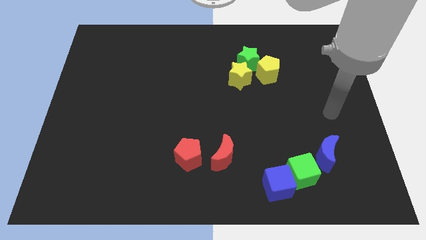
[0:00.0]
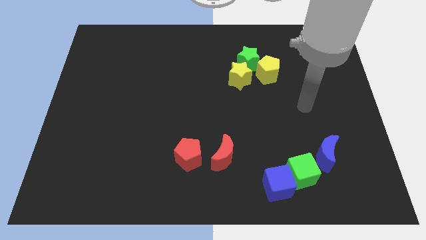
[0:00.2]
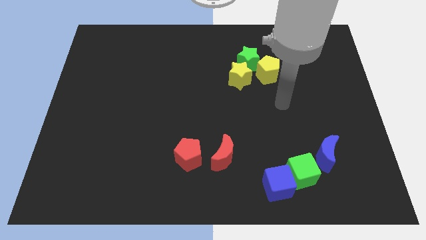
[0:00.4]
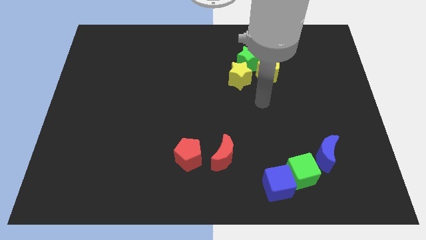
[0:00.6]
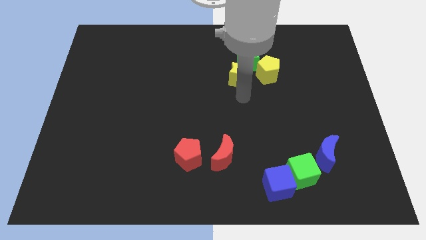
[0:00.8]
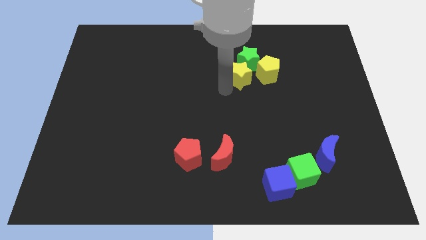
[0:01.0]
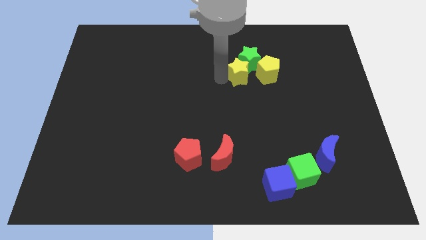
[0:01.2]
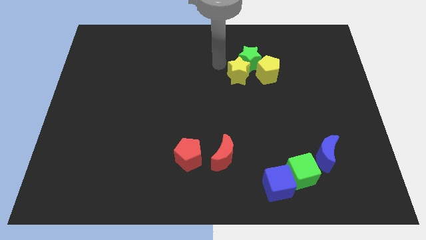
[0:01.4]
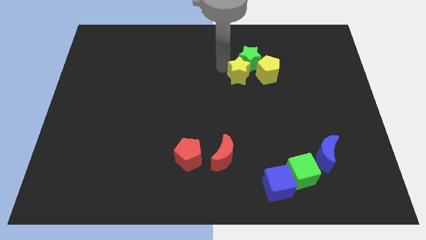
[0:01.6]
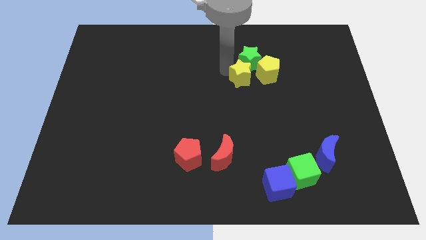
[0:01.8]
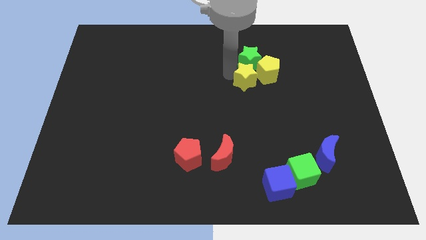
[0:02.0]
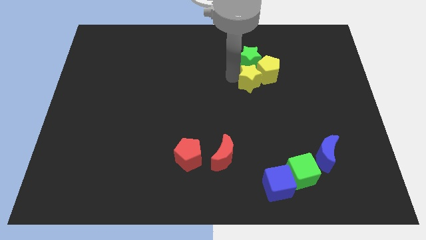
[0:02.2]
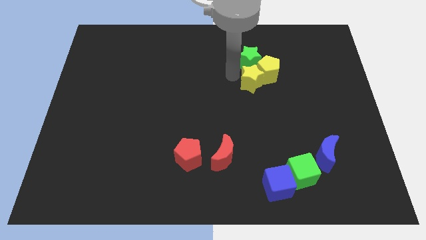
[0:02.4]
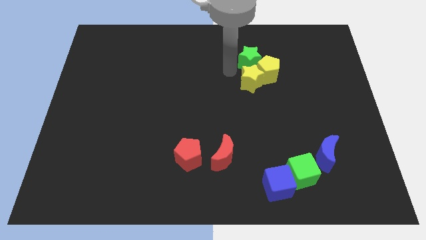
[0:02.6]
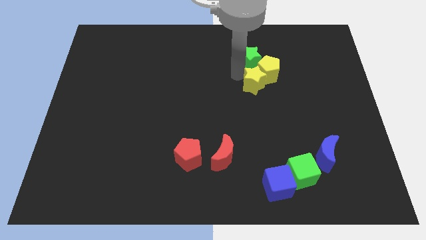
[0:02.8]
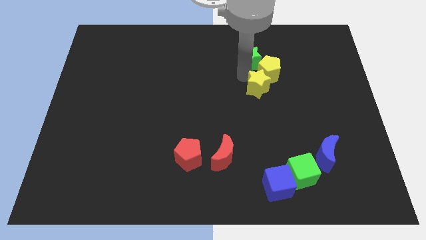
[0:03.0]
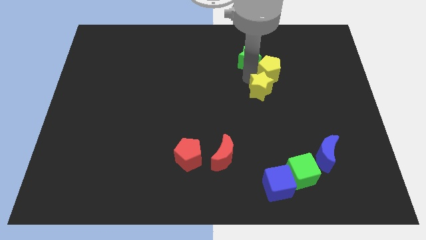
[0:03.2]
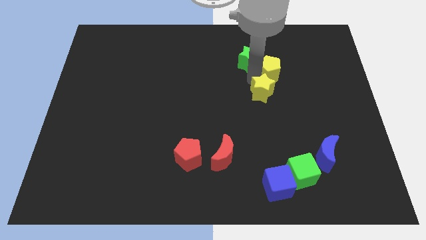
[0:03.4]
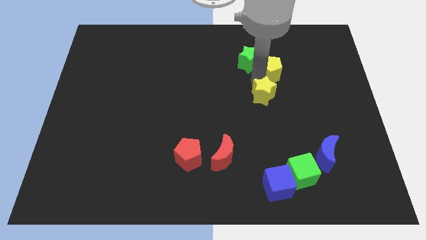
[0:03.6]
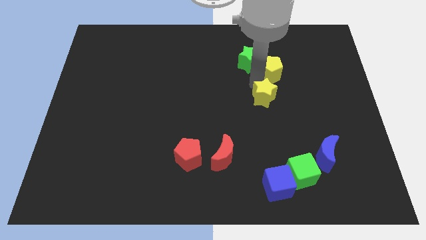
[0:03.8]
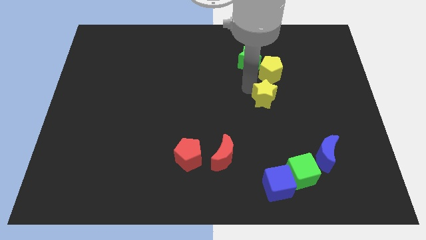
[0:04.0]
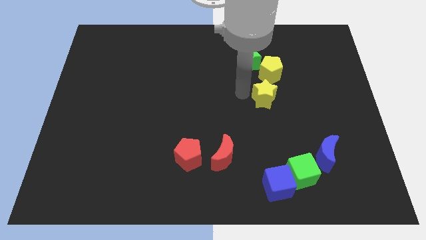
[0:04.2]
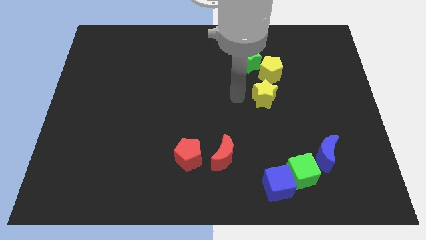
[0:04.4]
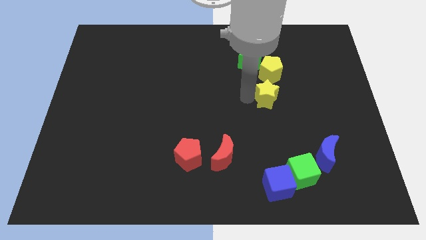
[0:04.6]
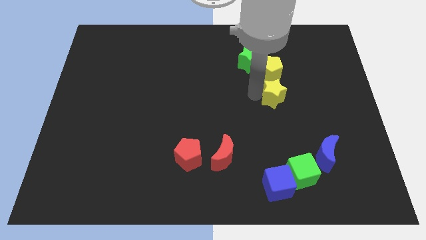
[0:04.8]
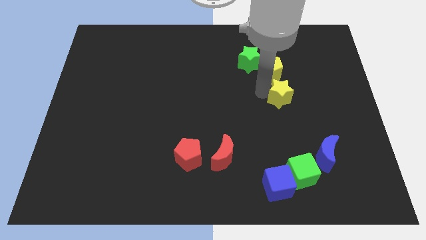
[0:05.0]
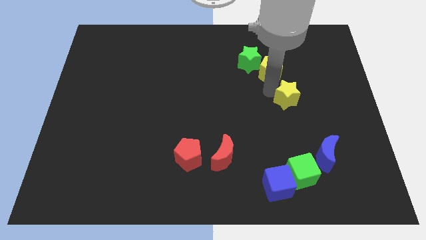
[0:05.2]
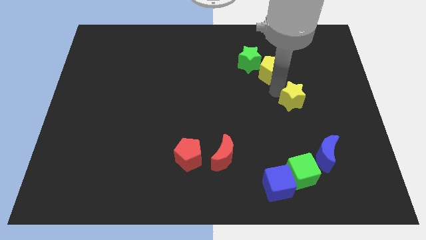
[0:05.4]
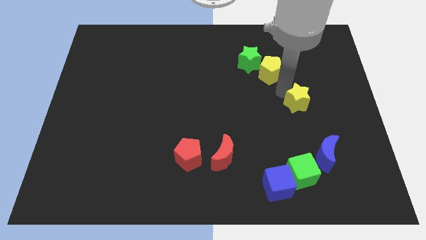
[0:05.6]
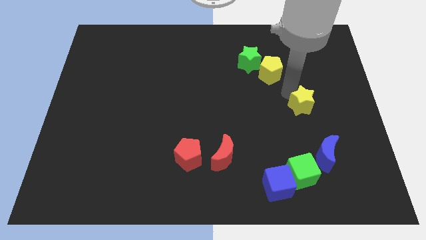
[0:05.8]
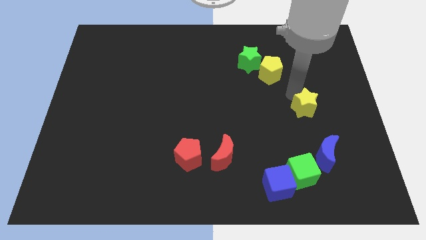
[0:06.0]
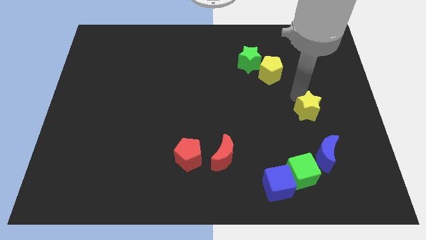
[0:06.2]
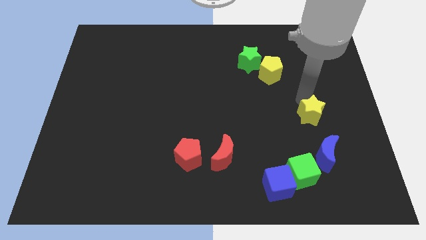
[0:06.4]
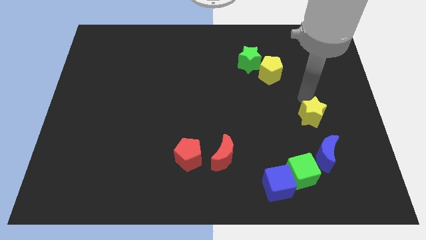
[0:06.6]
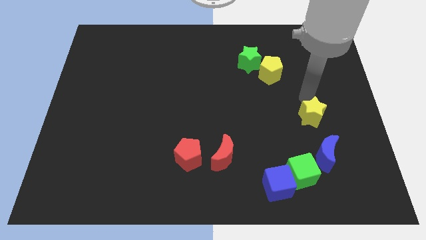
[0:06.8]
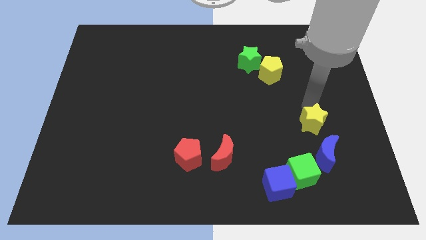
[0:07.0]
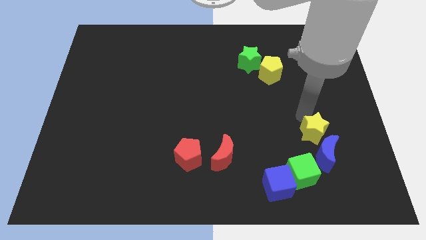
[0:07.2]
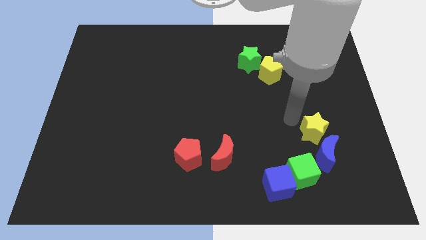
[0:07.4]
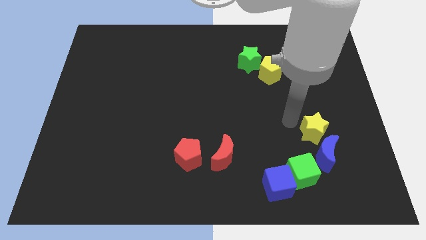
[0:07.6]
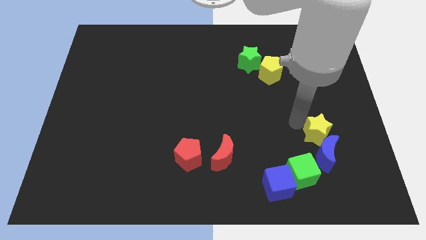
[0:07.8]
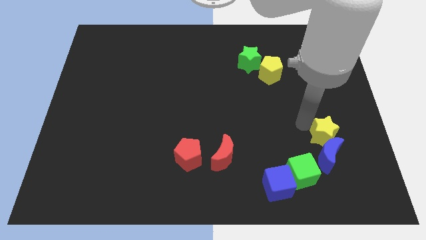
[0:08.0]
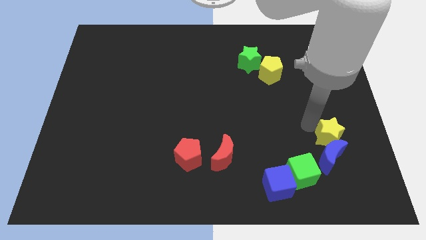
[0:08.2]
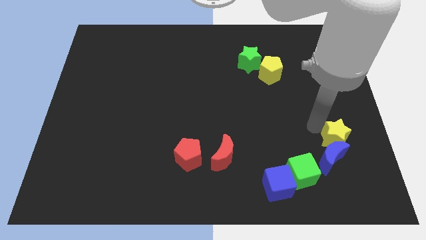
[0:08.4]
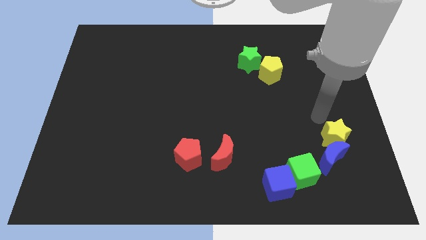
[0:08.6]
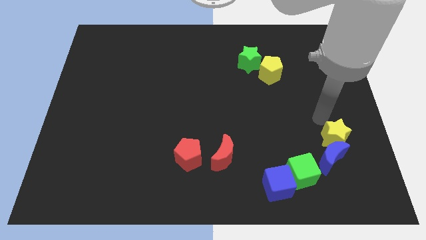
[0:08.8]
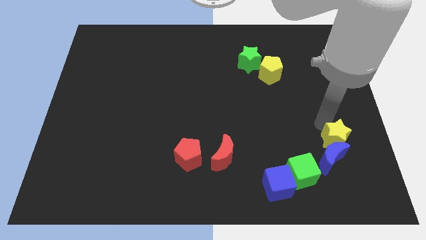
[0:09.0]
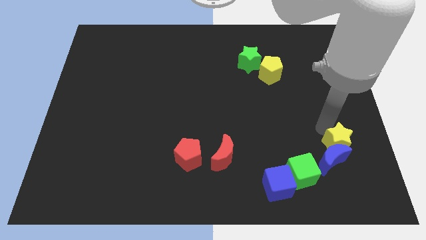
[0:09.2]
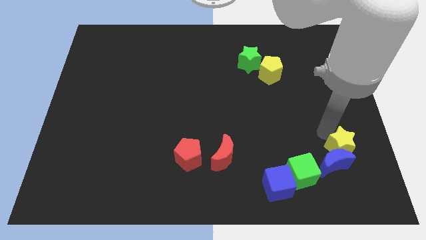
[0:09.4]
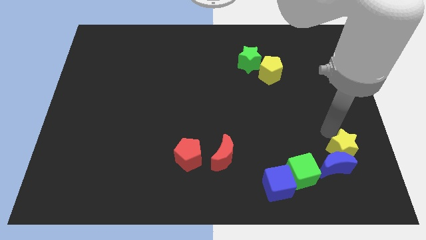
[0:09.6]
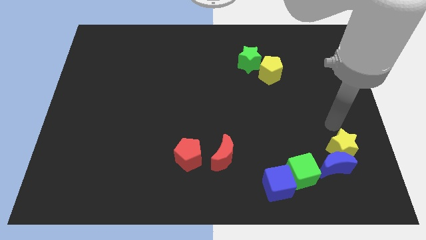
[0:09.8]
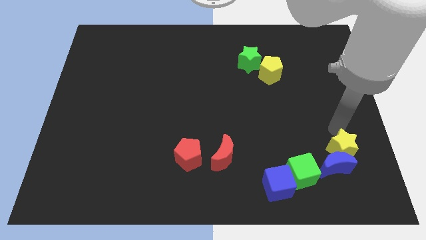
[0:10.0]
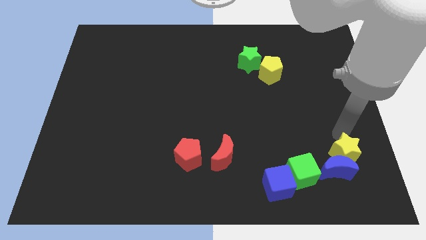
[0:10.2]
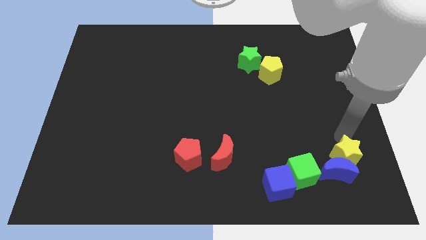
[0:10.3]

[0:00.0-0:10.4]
slide the yellow star to the right of the green cube

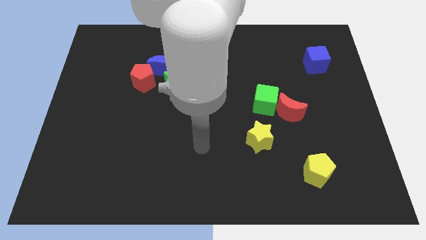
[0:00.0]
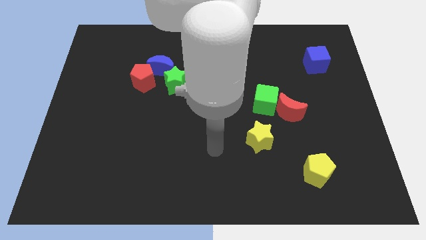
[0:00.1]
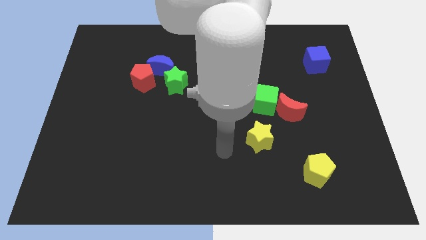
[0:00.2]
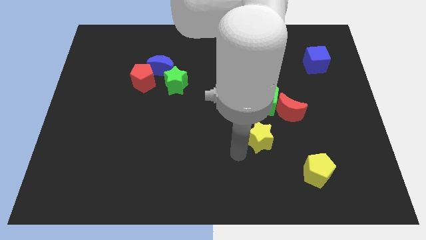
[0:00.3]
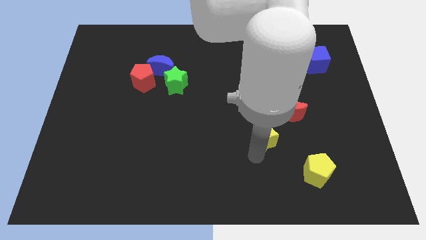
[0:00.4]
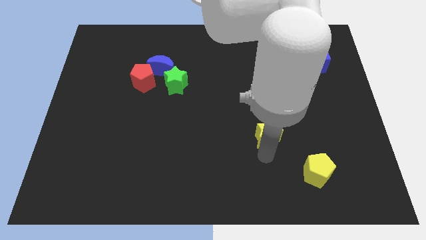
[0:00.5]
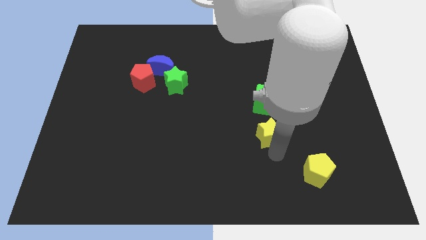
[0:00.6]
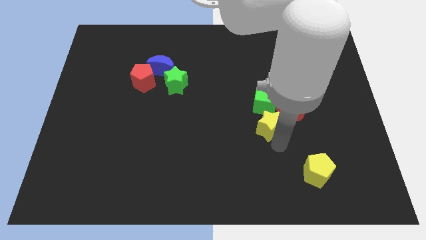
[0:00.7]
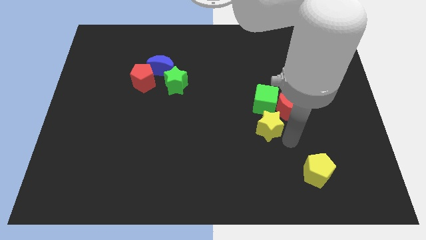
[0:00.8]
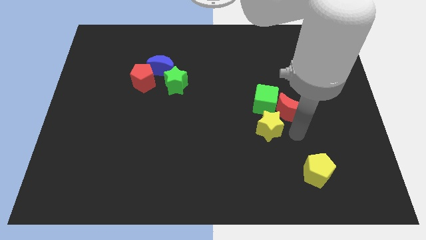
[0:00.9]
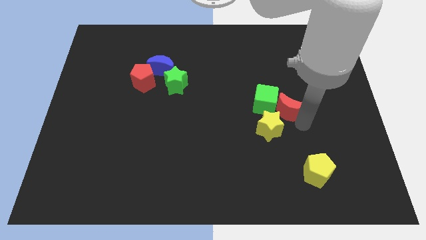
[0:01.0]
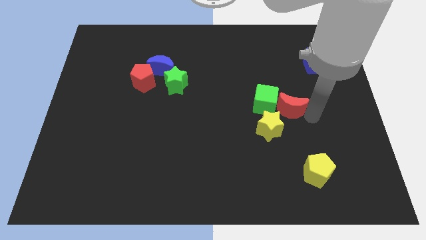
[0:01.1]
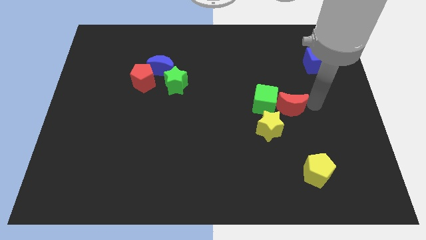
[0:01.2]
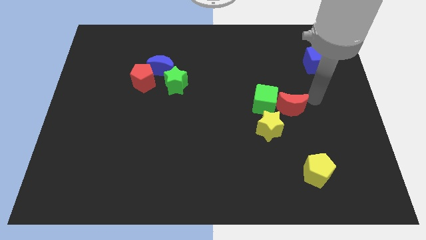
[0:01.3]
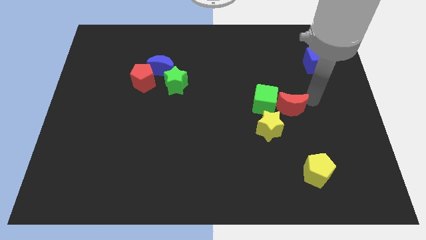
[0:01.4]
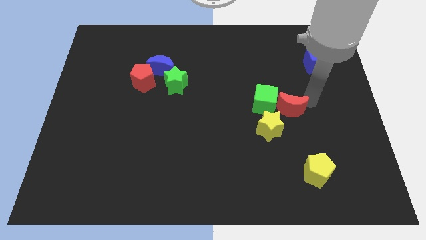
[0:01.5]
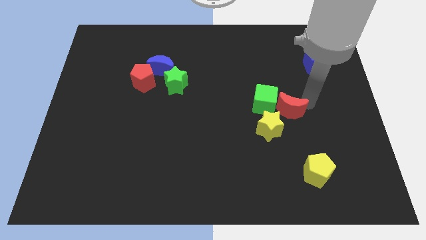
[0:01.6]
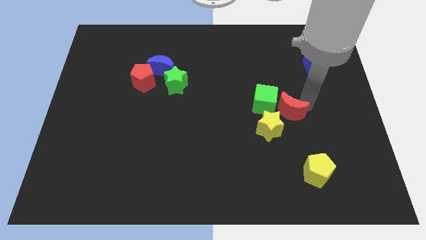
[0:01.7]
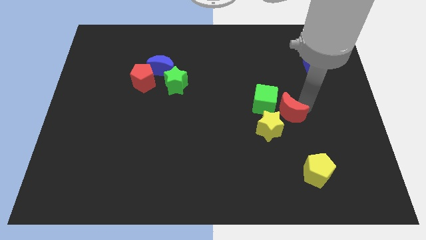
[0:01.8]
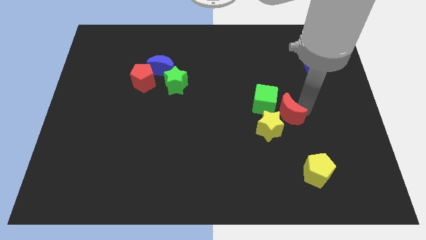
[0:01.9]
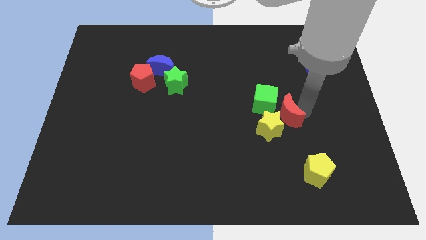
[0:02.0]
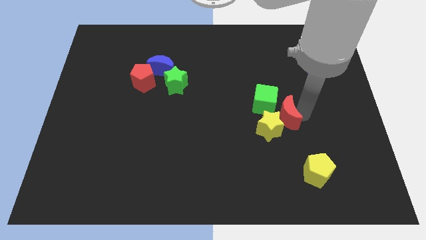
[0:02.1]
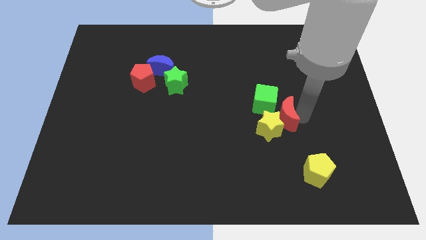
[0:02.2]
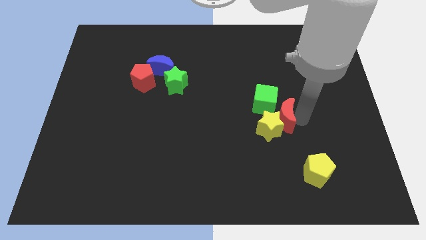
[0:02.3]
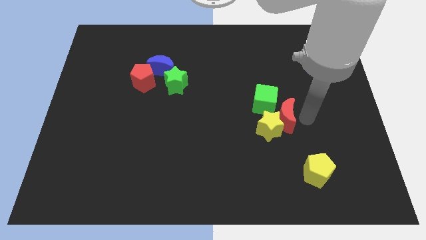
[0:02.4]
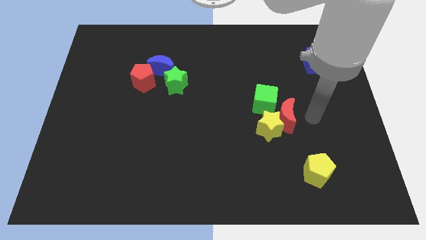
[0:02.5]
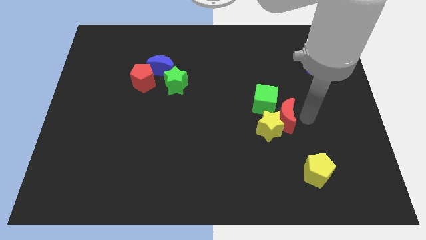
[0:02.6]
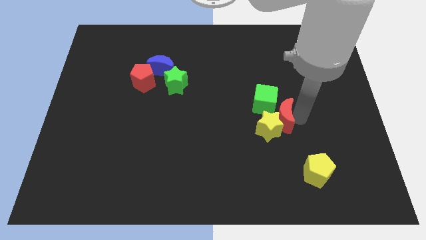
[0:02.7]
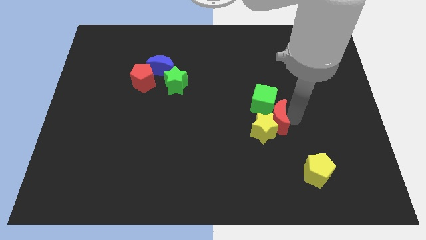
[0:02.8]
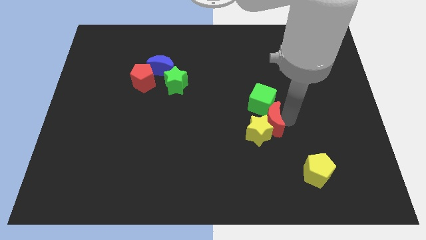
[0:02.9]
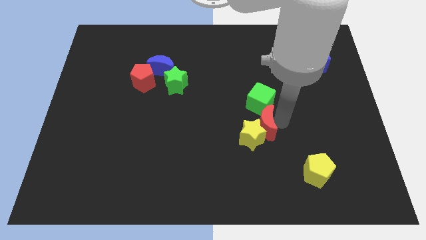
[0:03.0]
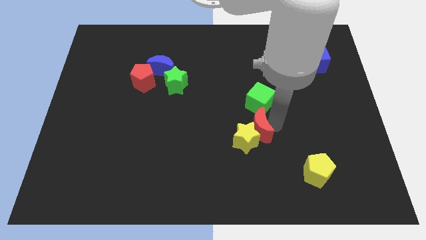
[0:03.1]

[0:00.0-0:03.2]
put the red moon diagonally down and to the left of the green cube

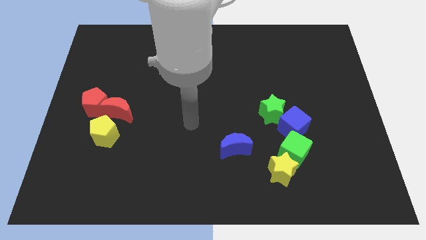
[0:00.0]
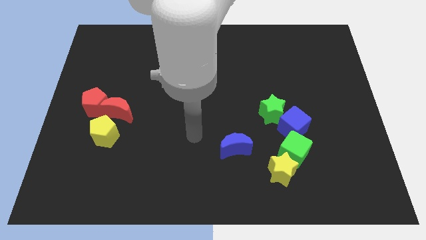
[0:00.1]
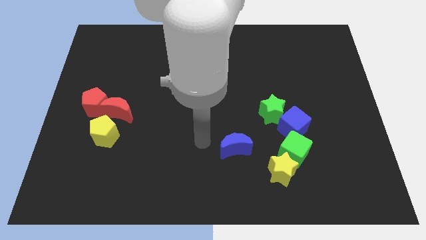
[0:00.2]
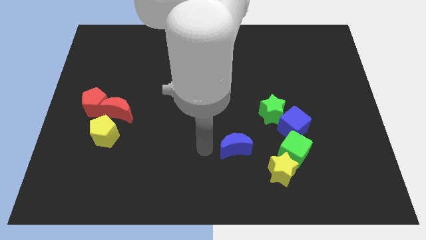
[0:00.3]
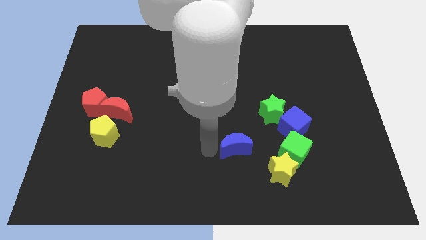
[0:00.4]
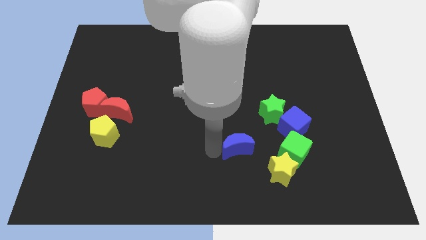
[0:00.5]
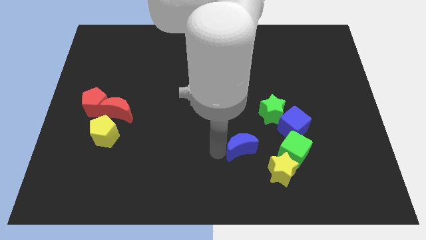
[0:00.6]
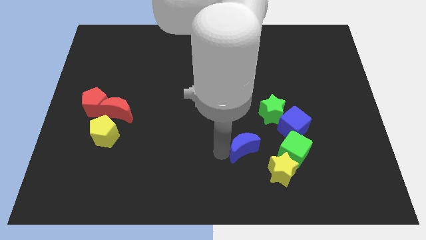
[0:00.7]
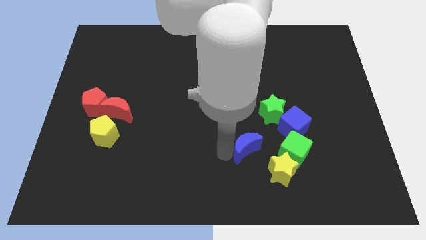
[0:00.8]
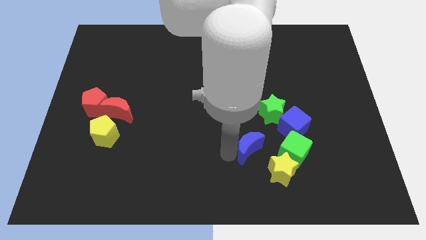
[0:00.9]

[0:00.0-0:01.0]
slide the blue moon diagonally down and to the left of the blue cube
